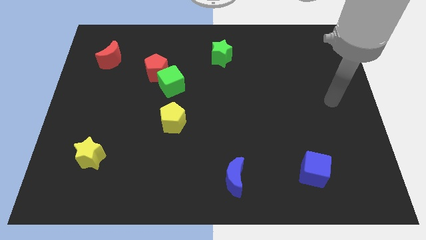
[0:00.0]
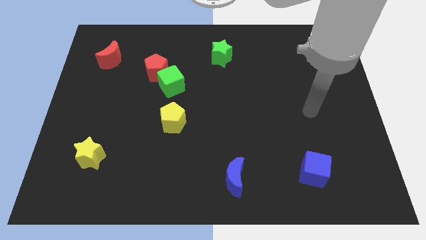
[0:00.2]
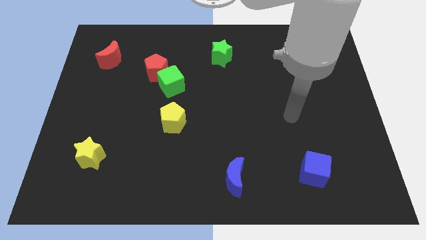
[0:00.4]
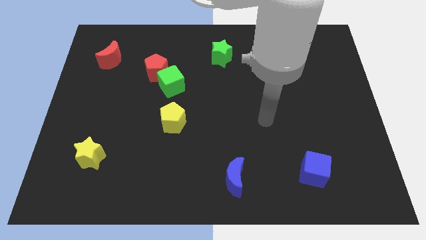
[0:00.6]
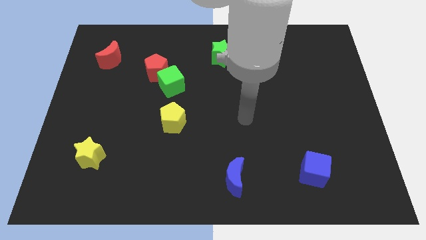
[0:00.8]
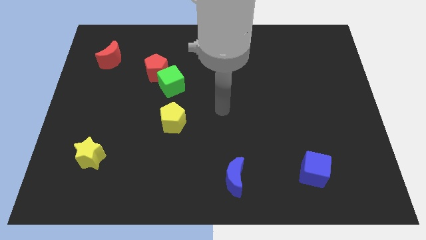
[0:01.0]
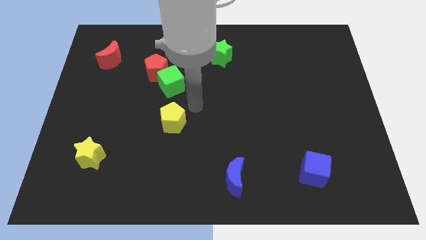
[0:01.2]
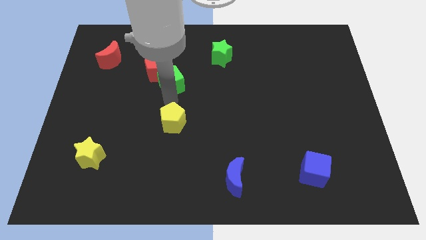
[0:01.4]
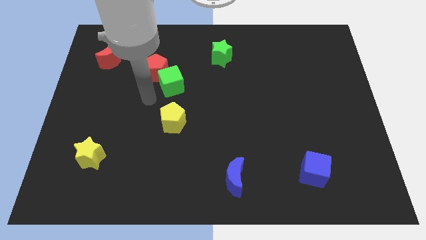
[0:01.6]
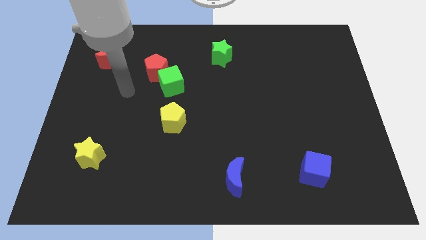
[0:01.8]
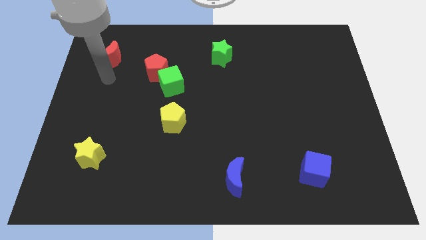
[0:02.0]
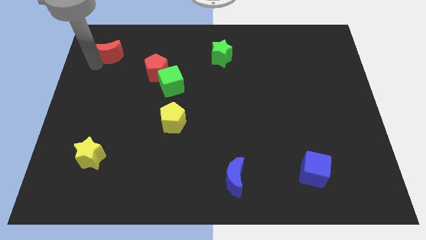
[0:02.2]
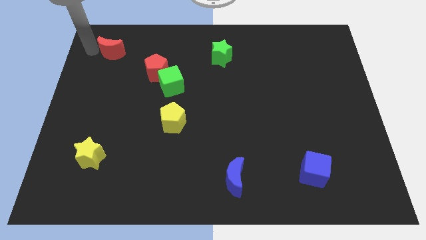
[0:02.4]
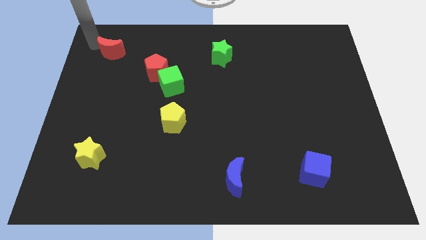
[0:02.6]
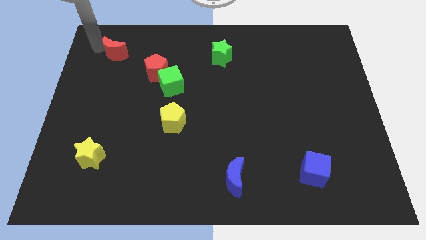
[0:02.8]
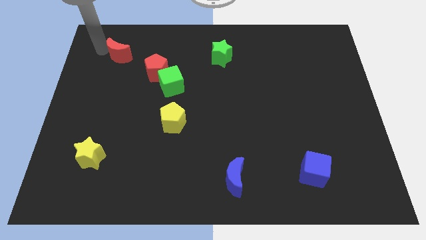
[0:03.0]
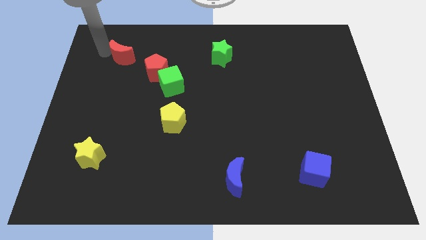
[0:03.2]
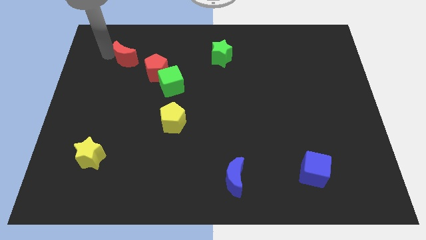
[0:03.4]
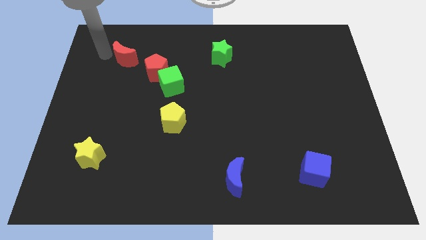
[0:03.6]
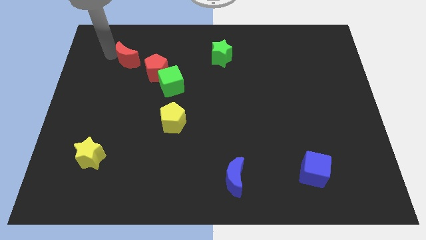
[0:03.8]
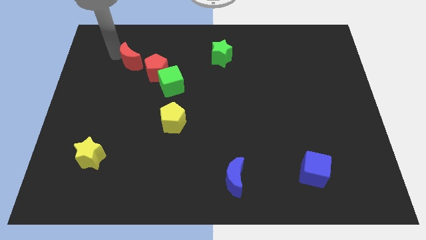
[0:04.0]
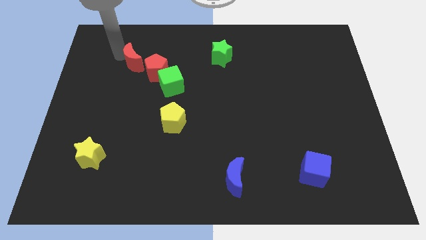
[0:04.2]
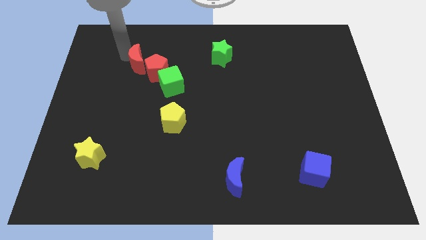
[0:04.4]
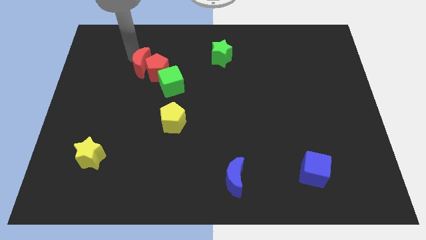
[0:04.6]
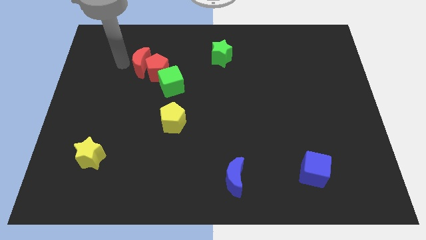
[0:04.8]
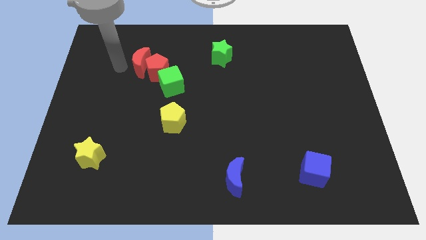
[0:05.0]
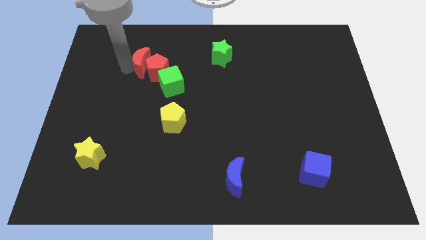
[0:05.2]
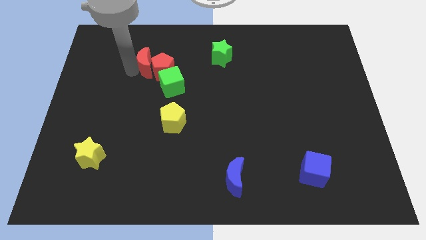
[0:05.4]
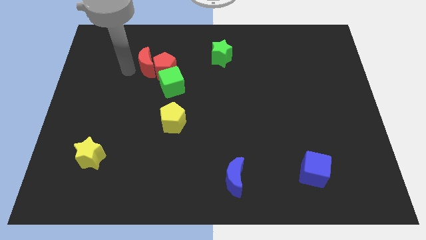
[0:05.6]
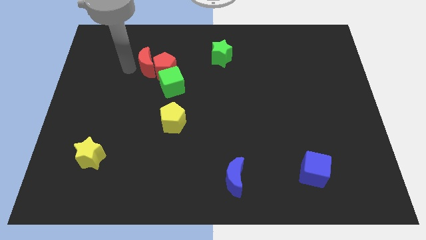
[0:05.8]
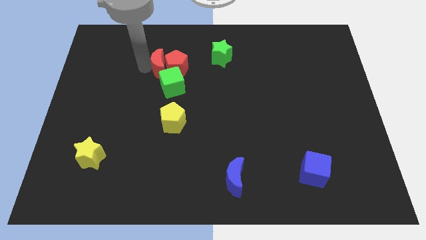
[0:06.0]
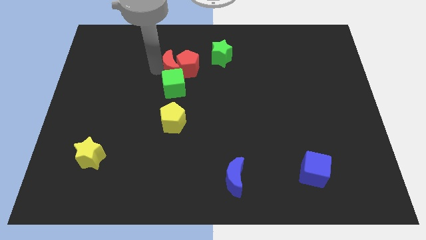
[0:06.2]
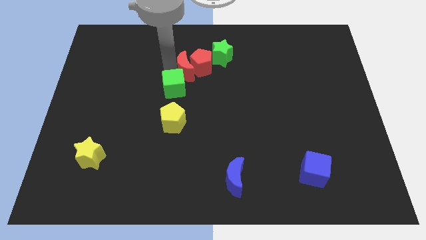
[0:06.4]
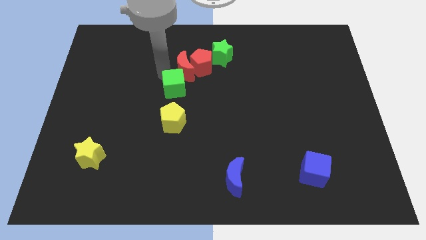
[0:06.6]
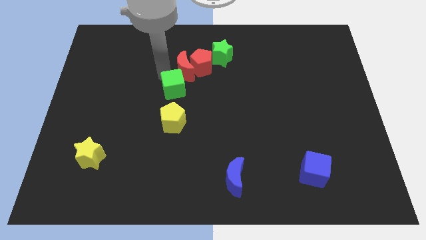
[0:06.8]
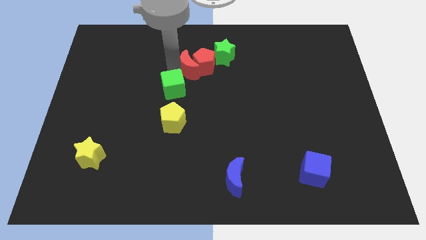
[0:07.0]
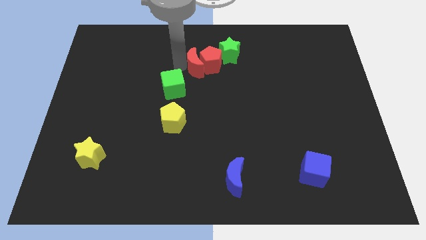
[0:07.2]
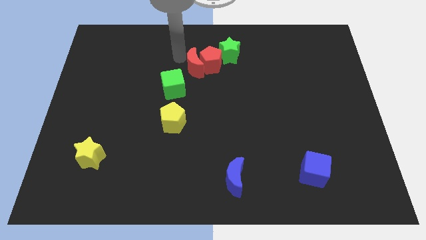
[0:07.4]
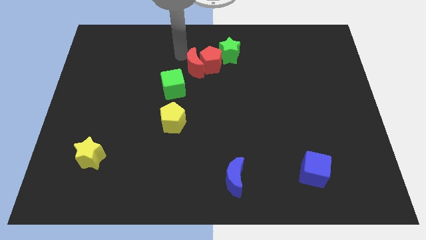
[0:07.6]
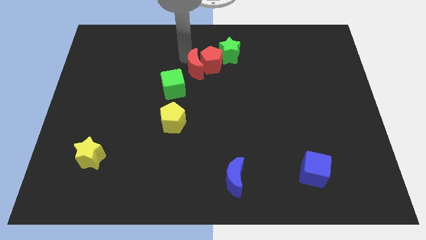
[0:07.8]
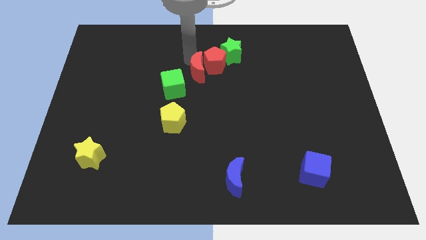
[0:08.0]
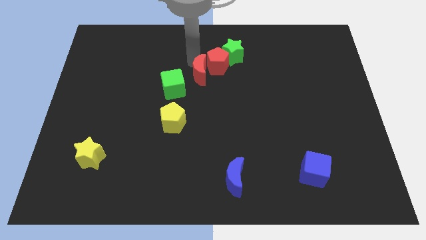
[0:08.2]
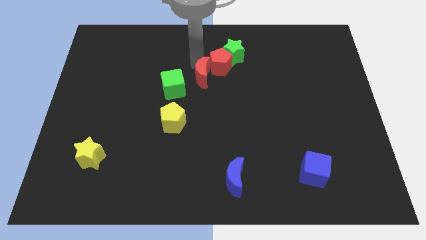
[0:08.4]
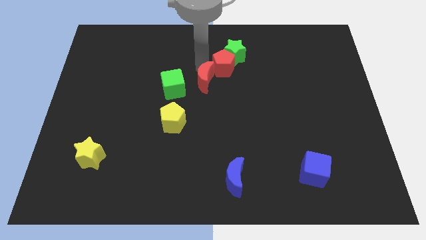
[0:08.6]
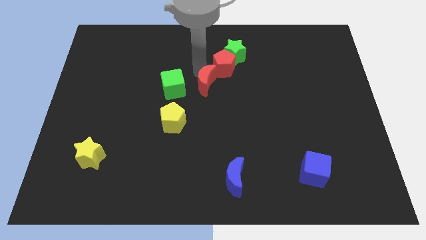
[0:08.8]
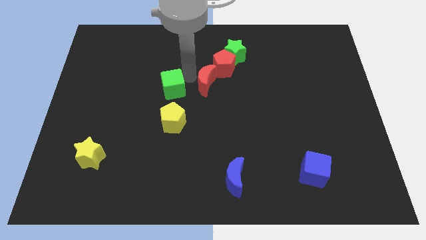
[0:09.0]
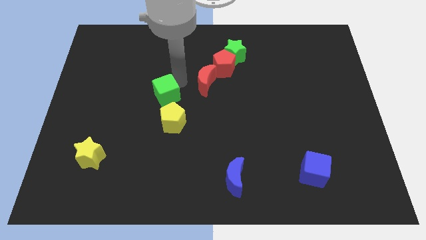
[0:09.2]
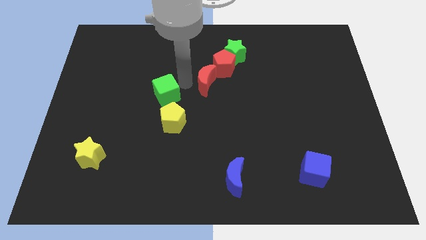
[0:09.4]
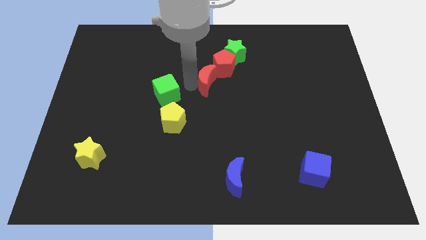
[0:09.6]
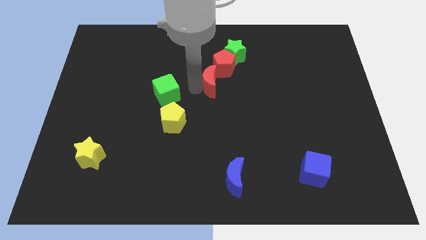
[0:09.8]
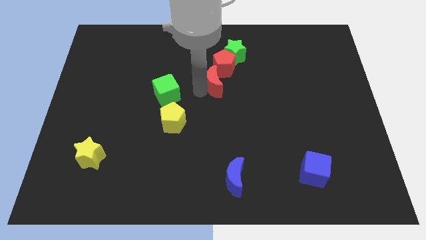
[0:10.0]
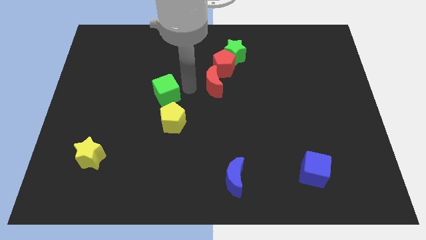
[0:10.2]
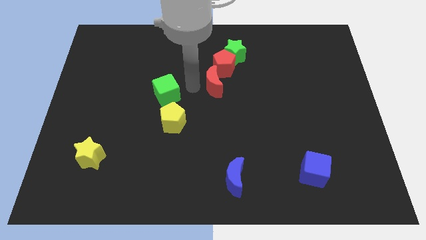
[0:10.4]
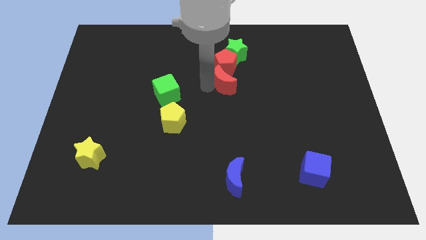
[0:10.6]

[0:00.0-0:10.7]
slide the red moon to the bottom side of the green star

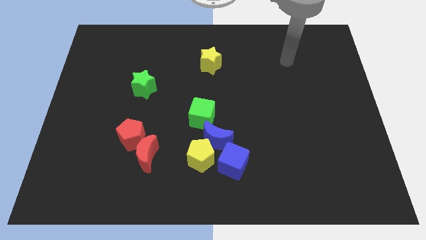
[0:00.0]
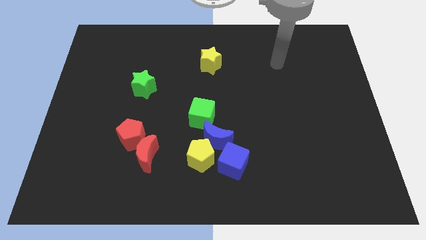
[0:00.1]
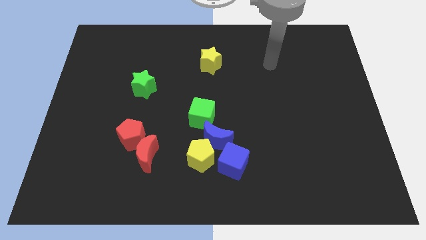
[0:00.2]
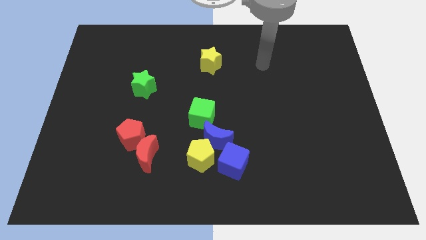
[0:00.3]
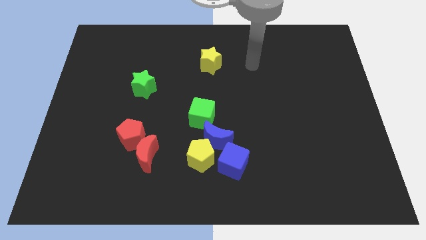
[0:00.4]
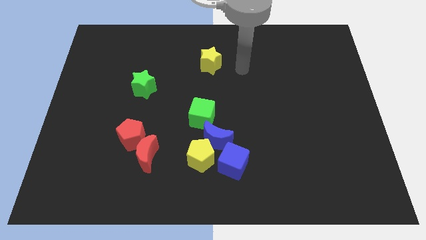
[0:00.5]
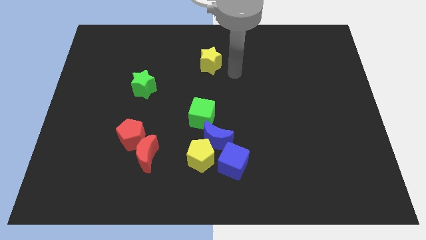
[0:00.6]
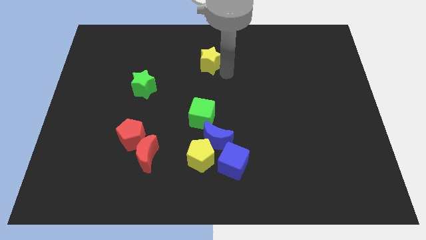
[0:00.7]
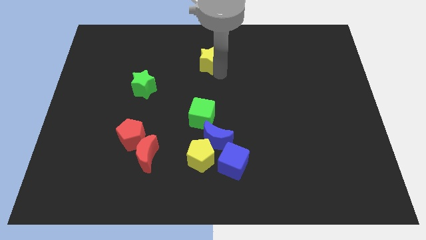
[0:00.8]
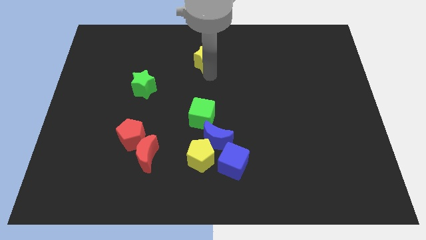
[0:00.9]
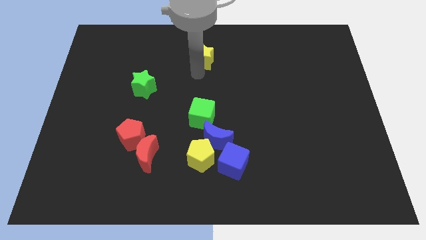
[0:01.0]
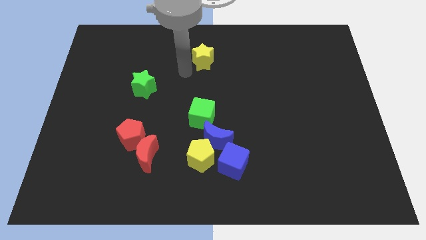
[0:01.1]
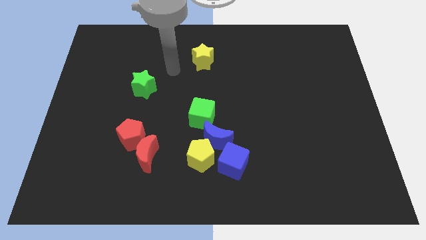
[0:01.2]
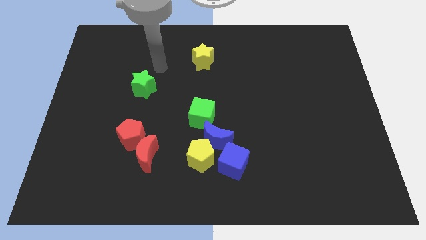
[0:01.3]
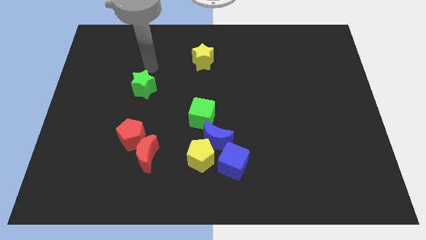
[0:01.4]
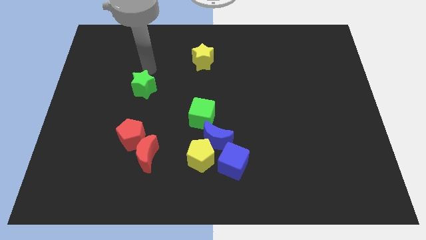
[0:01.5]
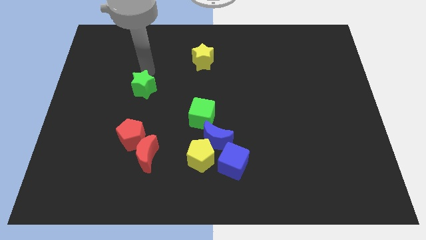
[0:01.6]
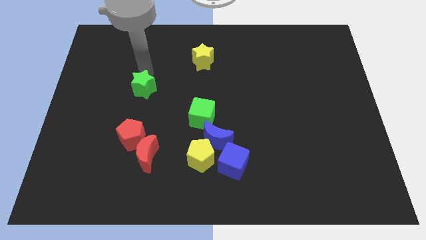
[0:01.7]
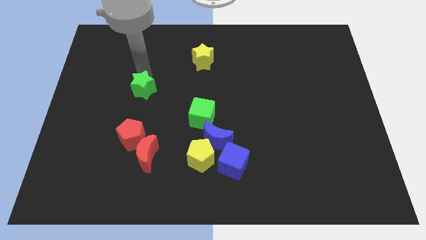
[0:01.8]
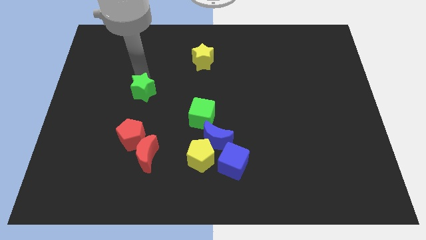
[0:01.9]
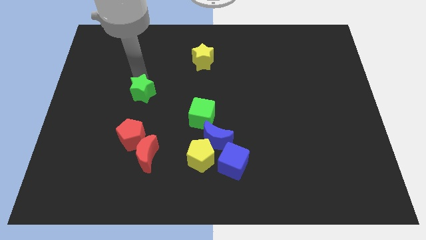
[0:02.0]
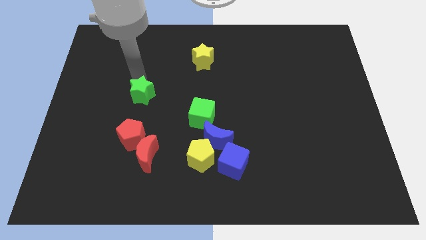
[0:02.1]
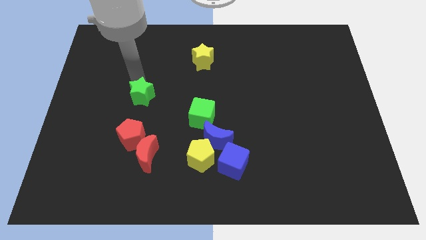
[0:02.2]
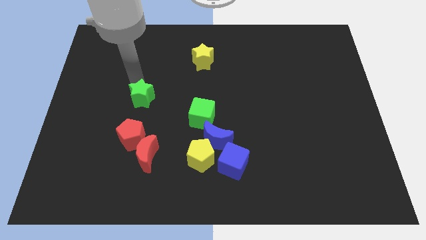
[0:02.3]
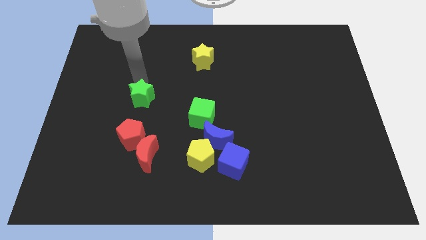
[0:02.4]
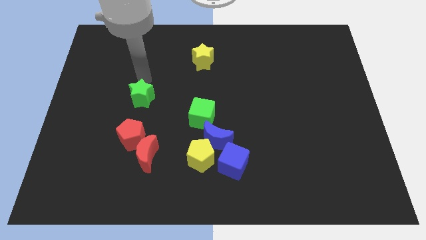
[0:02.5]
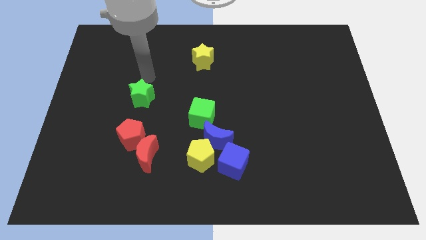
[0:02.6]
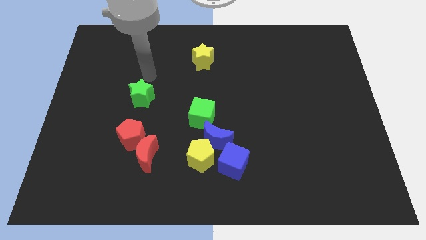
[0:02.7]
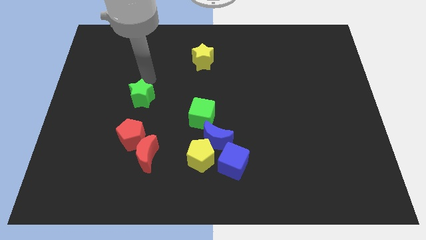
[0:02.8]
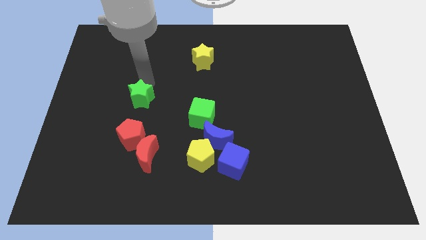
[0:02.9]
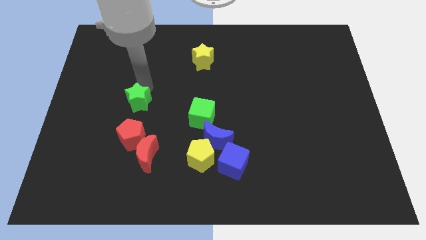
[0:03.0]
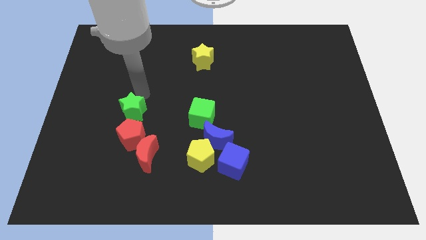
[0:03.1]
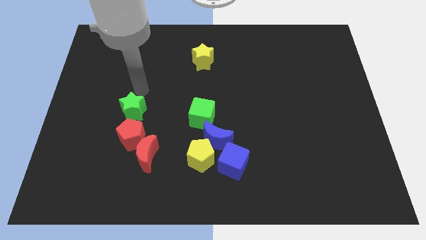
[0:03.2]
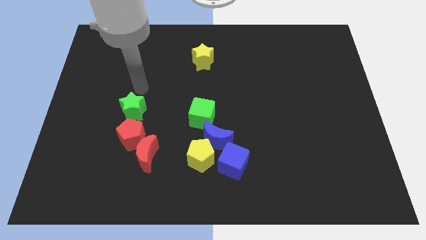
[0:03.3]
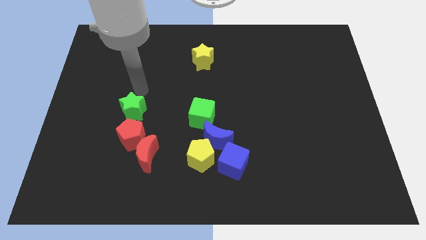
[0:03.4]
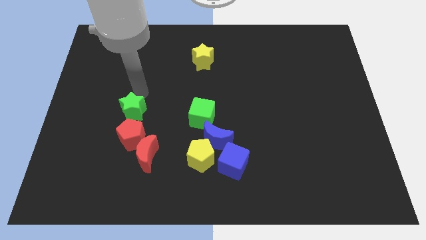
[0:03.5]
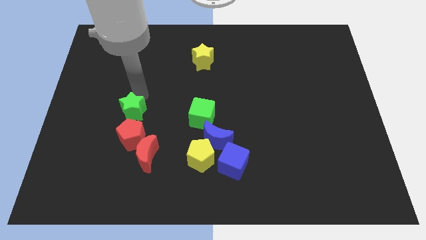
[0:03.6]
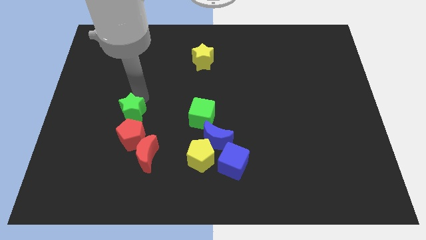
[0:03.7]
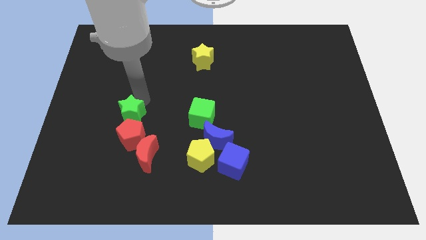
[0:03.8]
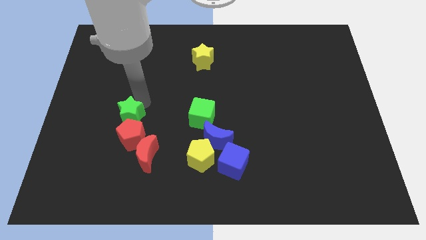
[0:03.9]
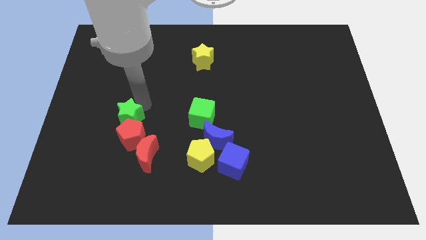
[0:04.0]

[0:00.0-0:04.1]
put the green star to the top left of the red moon
